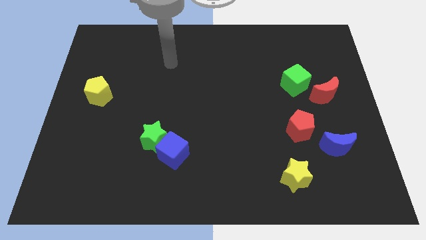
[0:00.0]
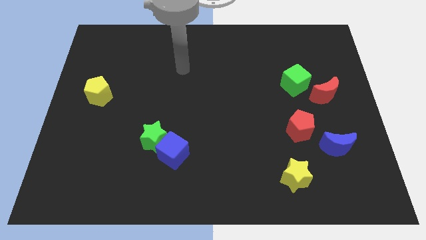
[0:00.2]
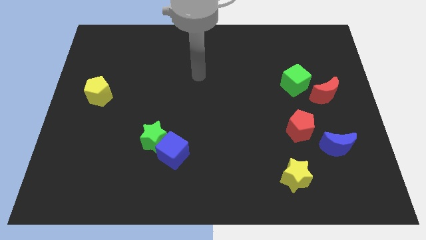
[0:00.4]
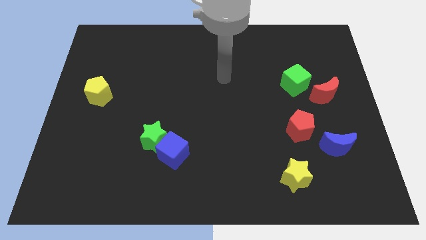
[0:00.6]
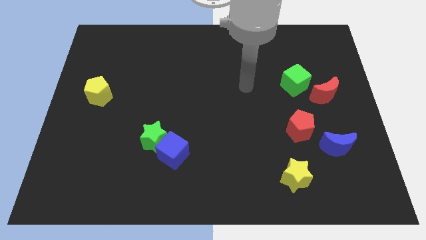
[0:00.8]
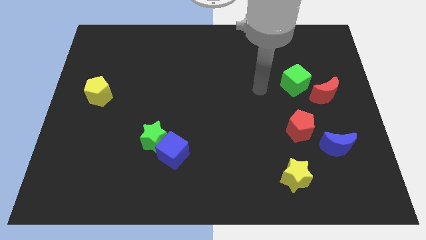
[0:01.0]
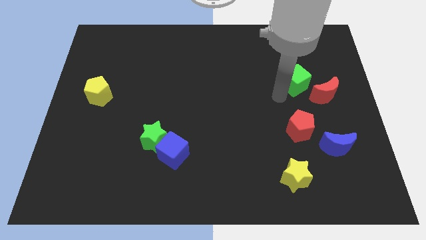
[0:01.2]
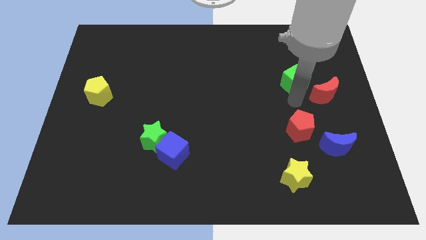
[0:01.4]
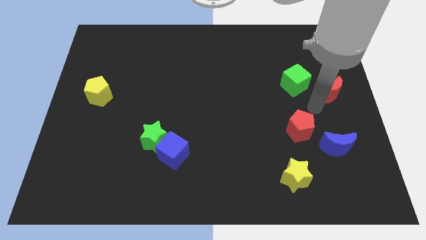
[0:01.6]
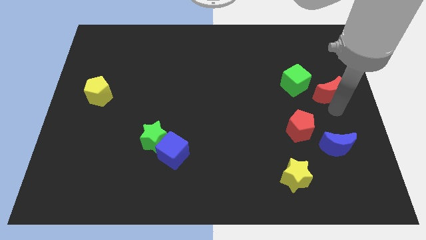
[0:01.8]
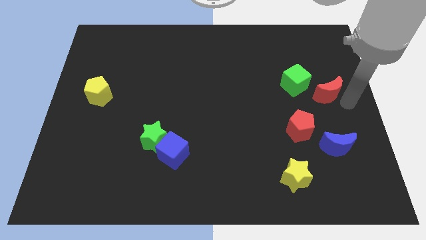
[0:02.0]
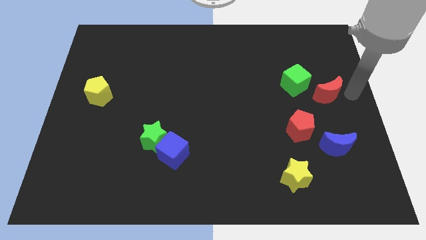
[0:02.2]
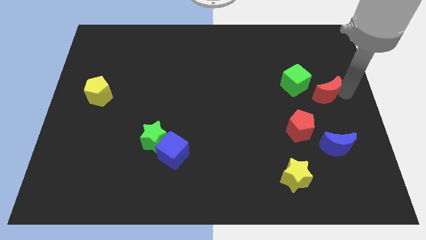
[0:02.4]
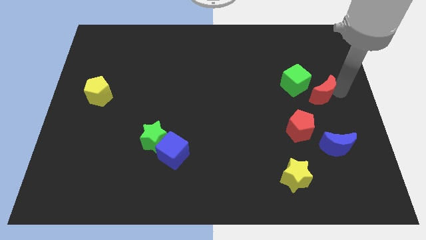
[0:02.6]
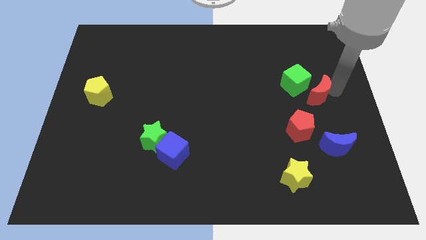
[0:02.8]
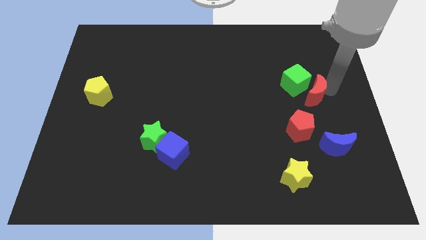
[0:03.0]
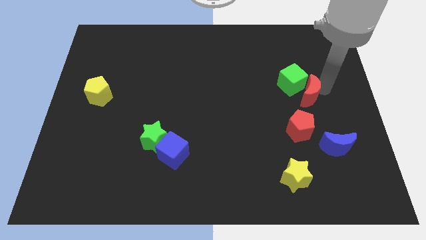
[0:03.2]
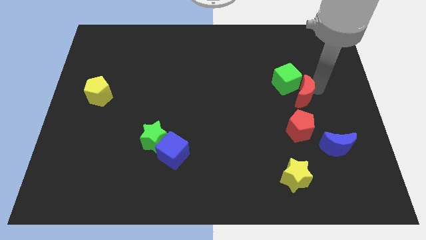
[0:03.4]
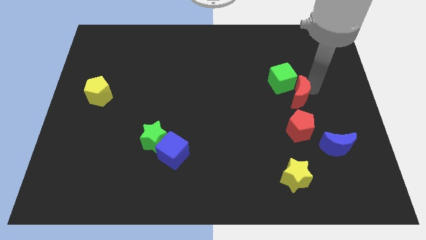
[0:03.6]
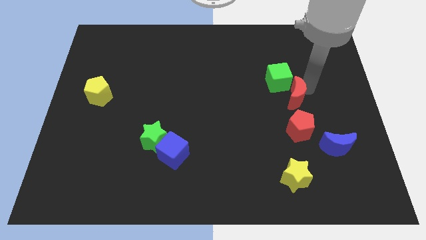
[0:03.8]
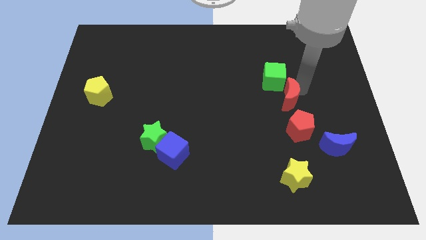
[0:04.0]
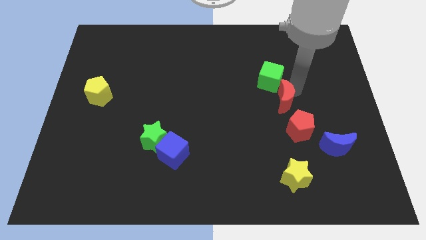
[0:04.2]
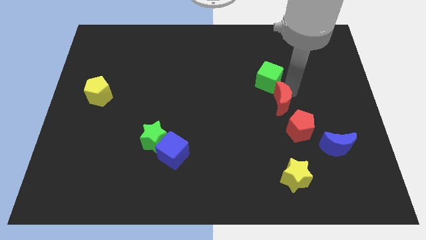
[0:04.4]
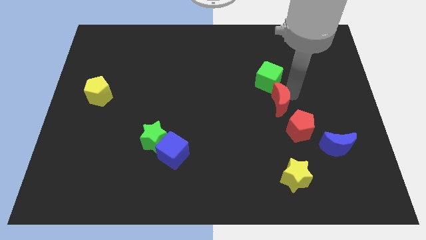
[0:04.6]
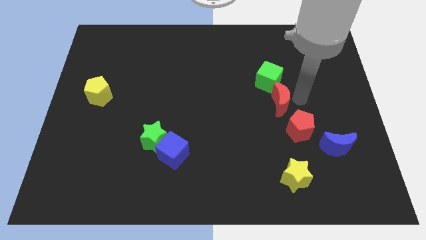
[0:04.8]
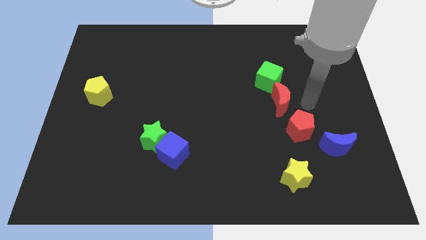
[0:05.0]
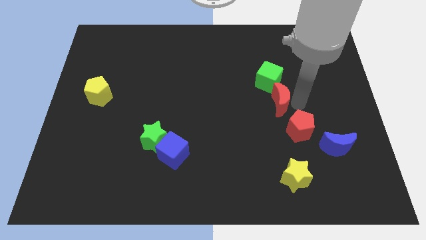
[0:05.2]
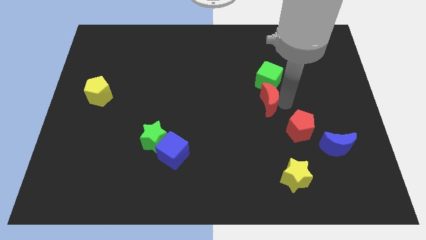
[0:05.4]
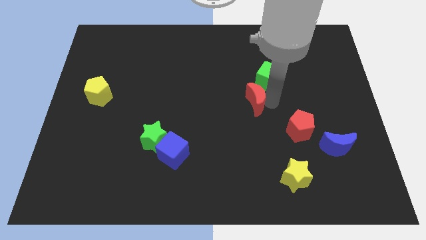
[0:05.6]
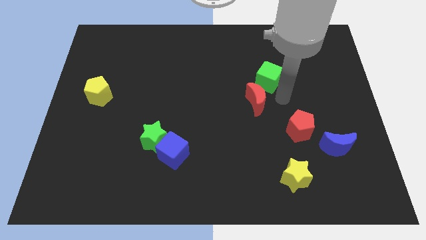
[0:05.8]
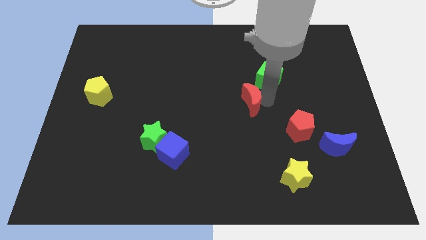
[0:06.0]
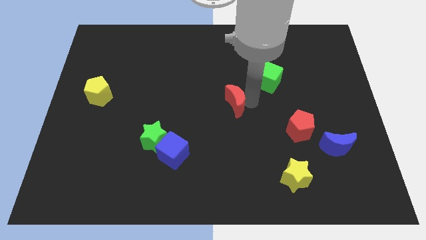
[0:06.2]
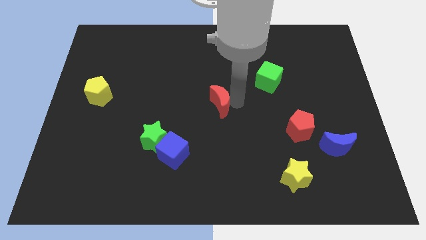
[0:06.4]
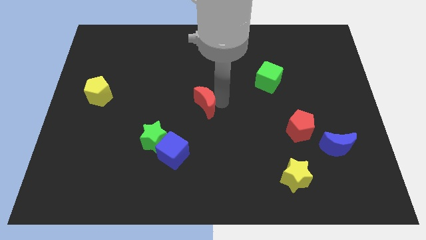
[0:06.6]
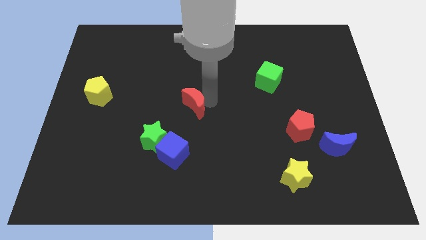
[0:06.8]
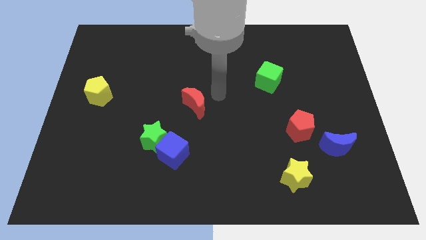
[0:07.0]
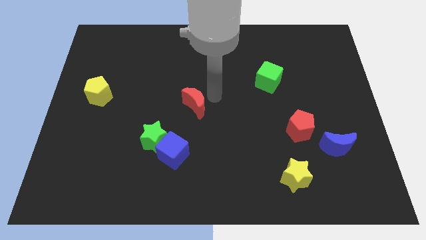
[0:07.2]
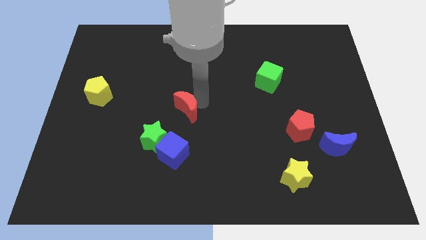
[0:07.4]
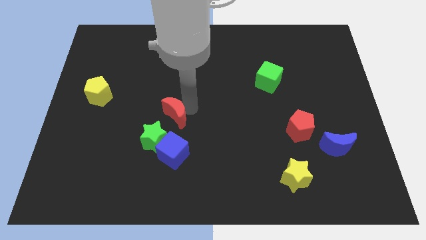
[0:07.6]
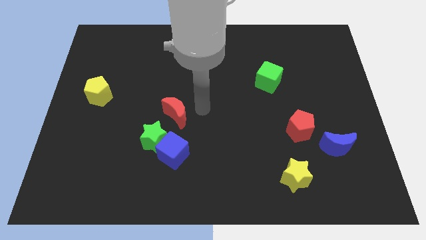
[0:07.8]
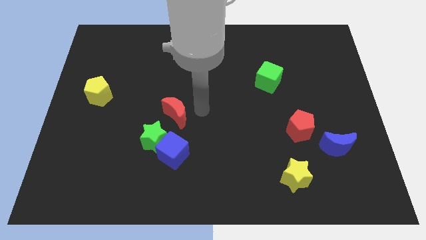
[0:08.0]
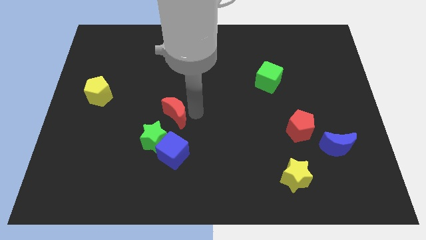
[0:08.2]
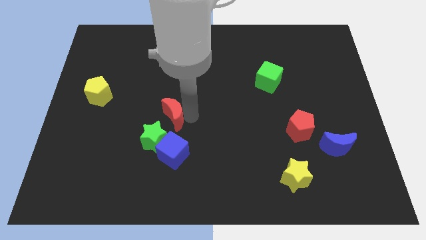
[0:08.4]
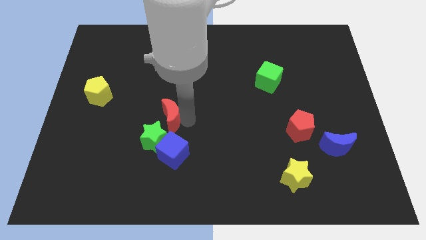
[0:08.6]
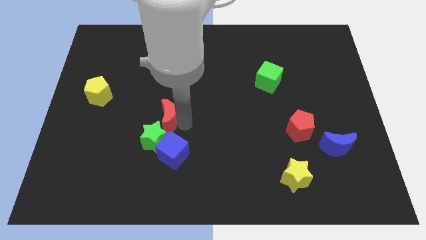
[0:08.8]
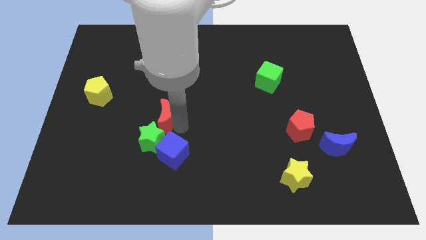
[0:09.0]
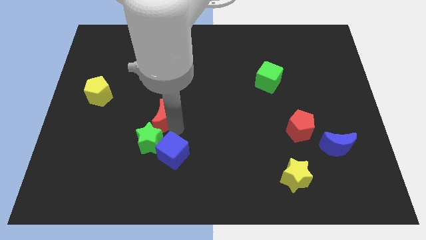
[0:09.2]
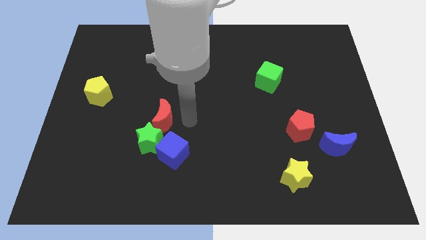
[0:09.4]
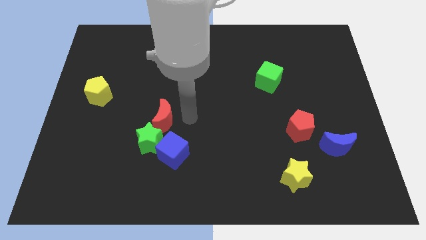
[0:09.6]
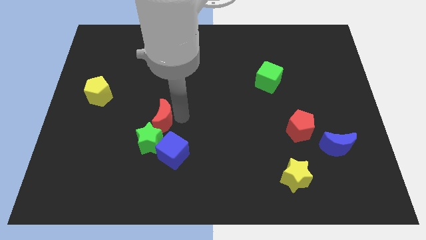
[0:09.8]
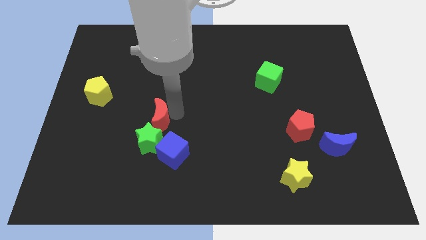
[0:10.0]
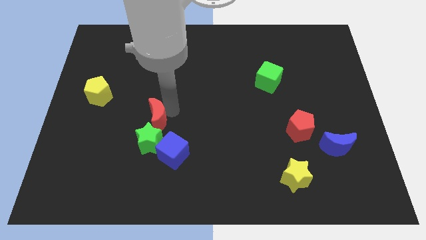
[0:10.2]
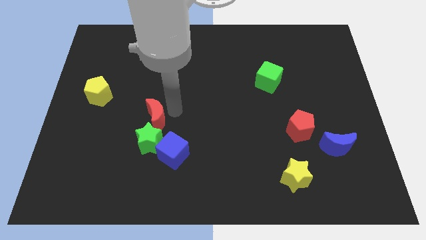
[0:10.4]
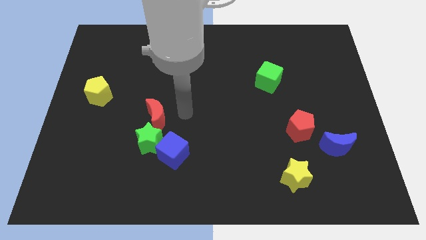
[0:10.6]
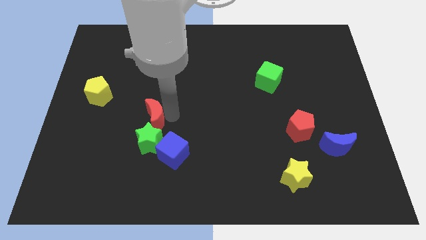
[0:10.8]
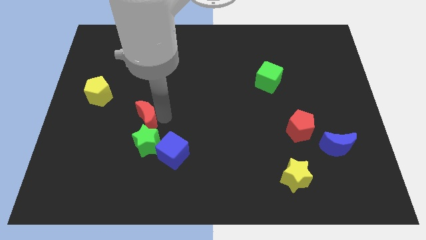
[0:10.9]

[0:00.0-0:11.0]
move the red moon to the top left side of the green star

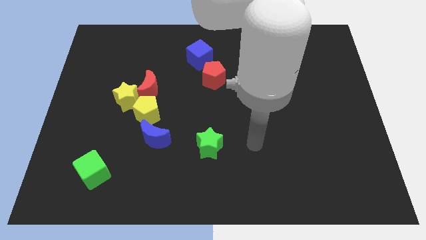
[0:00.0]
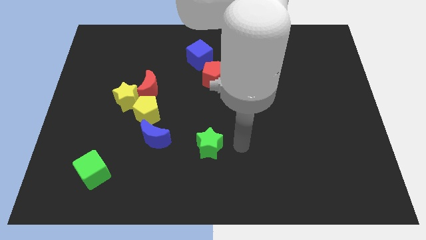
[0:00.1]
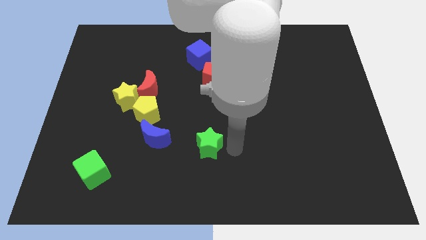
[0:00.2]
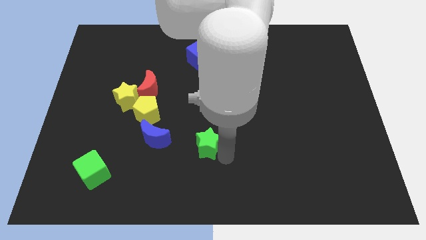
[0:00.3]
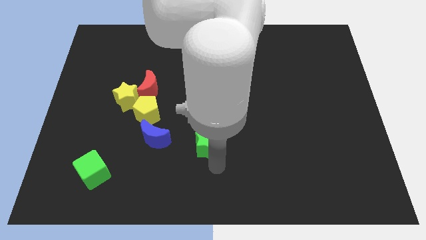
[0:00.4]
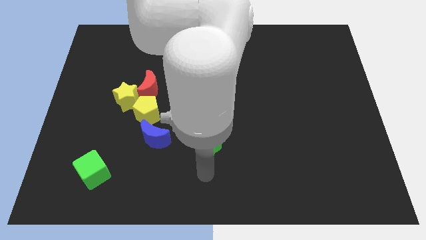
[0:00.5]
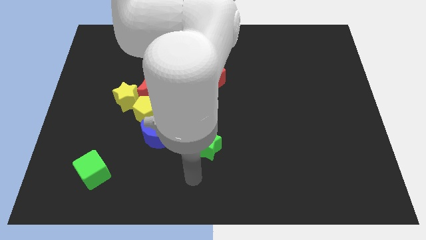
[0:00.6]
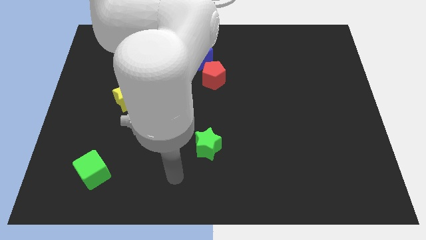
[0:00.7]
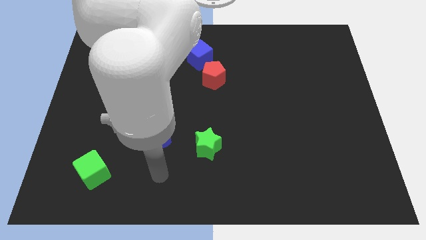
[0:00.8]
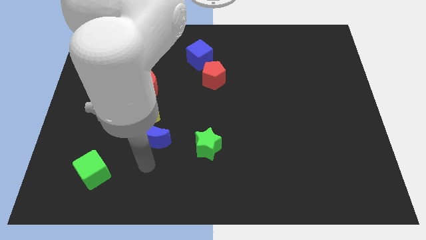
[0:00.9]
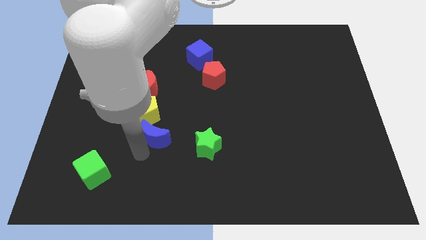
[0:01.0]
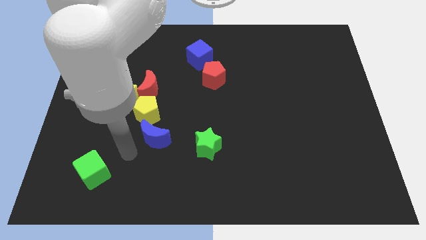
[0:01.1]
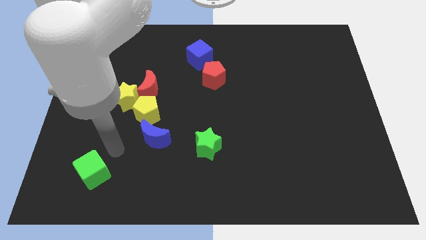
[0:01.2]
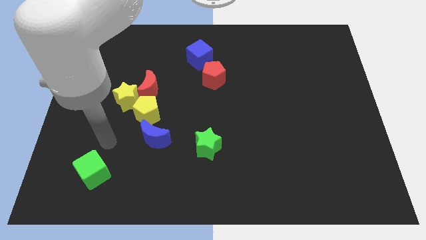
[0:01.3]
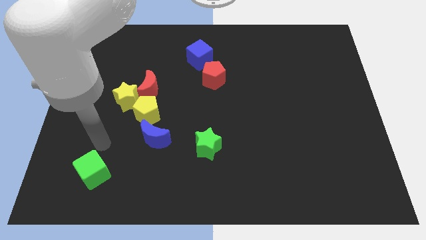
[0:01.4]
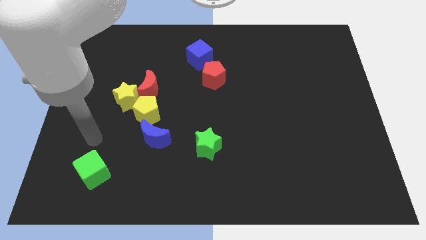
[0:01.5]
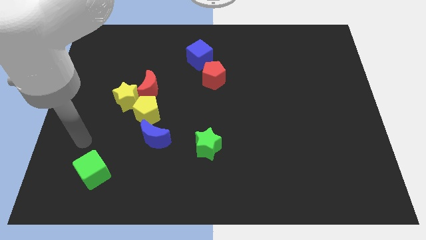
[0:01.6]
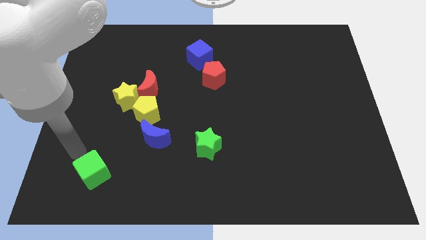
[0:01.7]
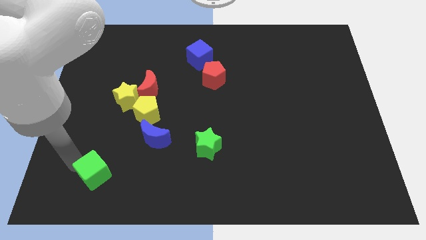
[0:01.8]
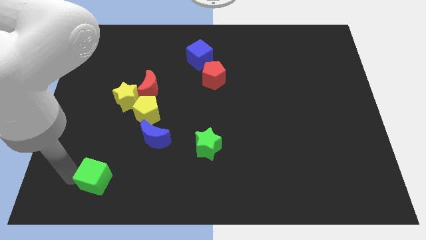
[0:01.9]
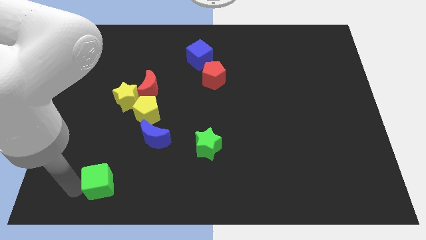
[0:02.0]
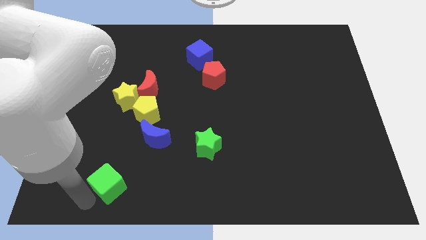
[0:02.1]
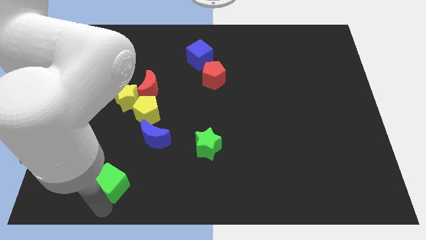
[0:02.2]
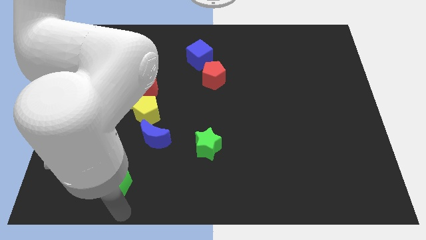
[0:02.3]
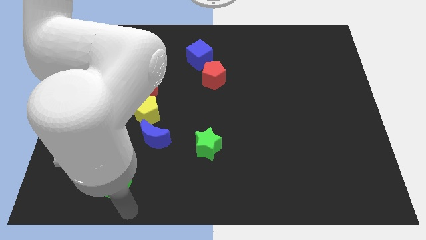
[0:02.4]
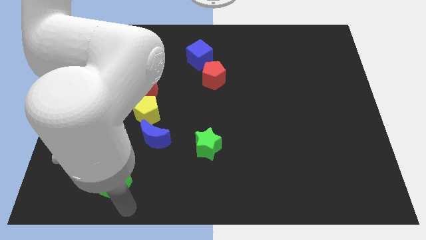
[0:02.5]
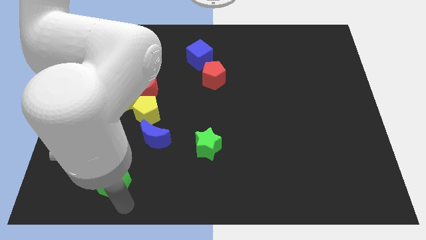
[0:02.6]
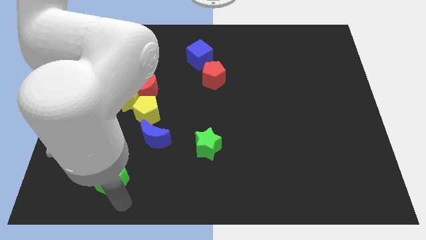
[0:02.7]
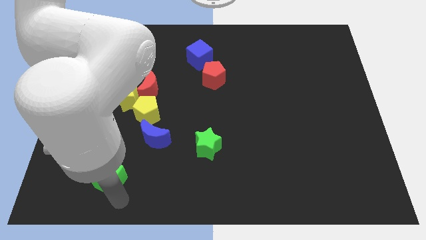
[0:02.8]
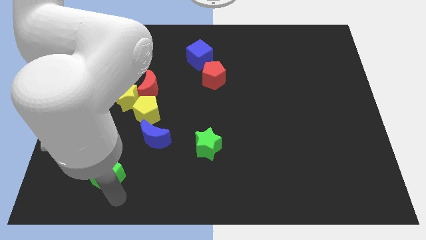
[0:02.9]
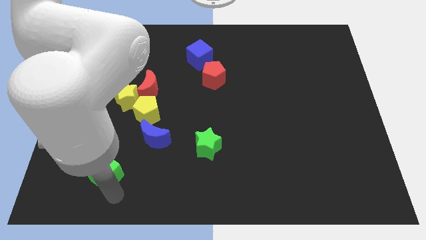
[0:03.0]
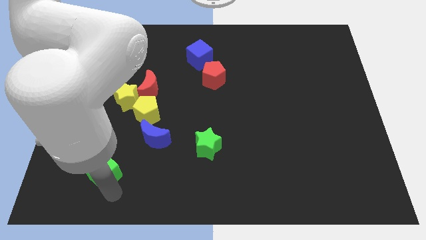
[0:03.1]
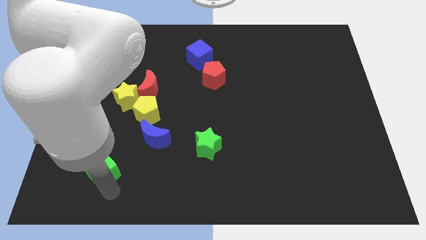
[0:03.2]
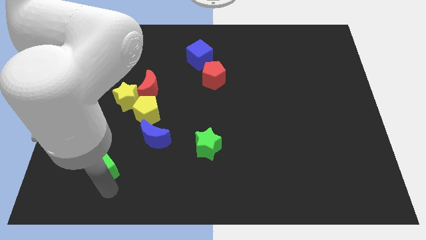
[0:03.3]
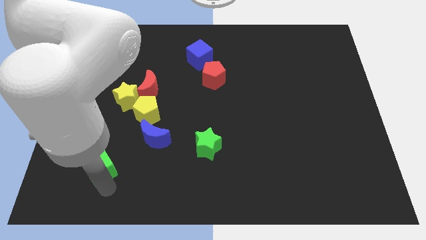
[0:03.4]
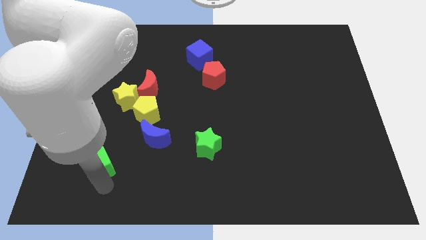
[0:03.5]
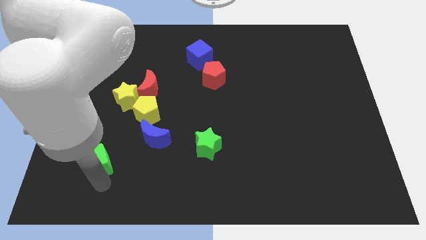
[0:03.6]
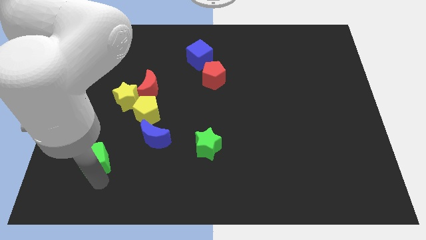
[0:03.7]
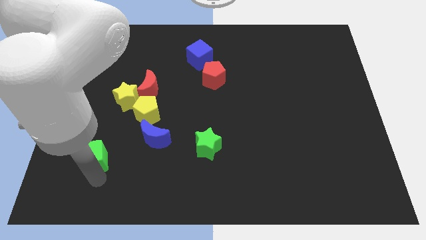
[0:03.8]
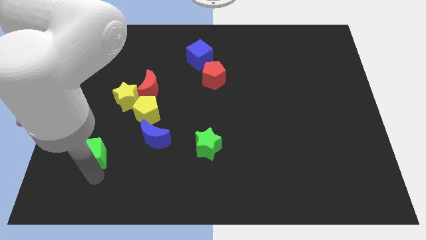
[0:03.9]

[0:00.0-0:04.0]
slide the green cube left of the blue moon
